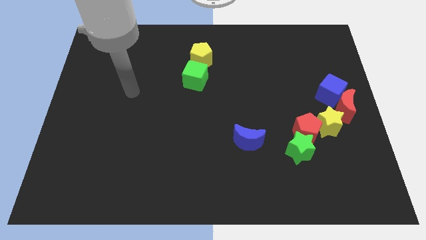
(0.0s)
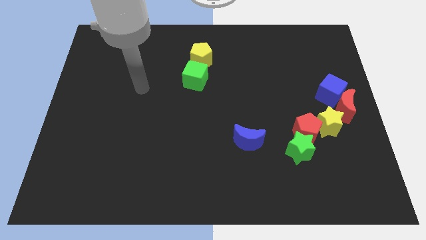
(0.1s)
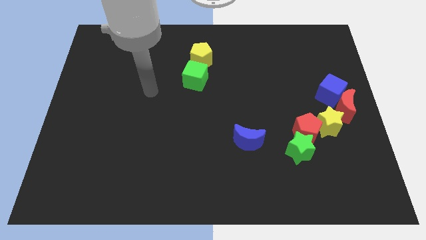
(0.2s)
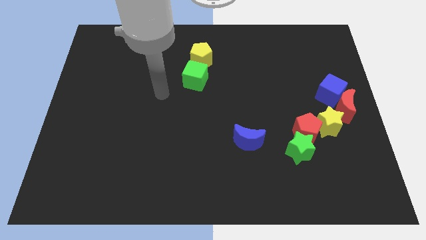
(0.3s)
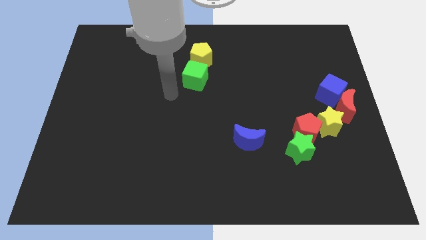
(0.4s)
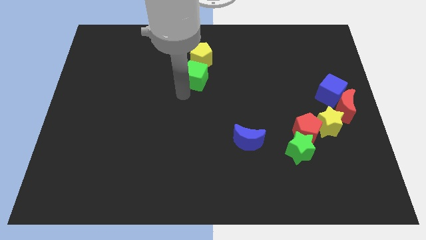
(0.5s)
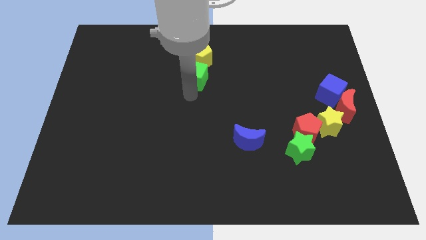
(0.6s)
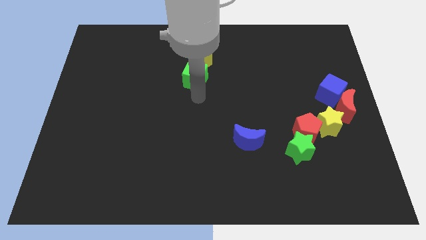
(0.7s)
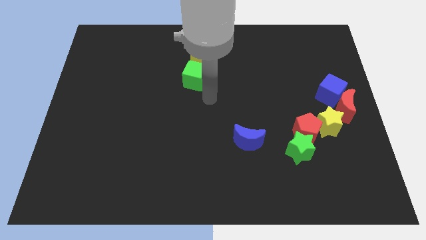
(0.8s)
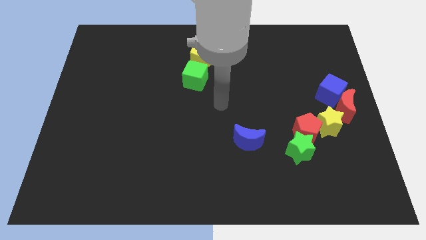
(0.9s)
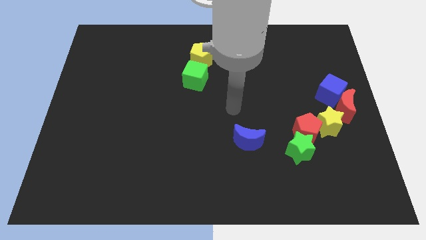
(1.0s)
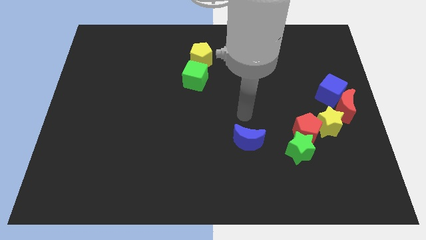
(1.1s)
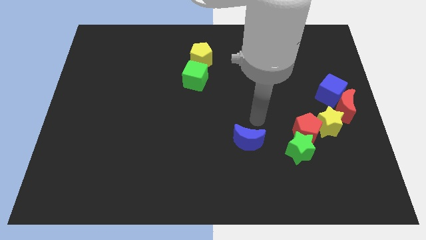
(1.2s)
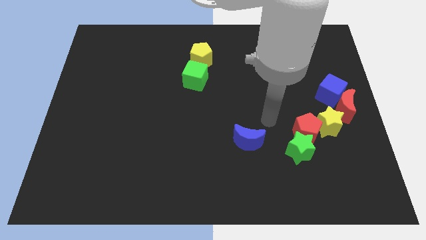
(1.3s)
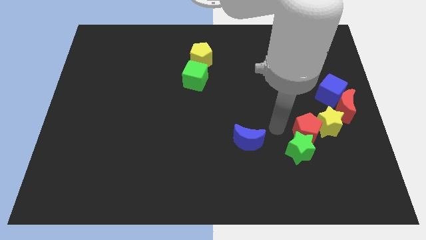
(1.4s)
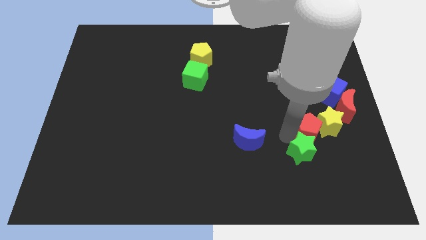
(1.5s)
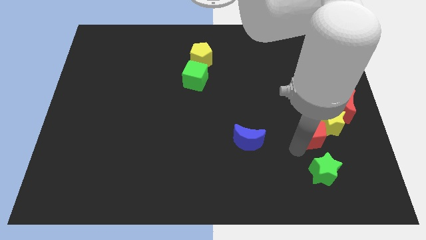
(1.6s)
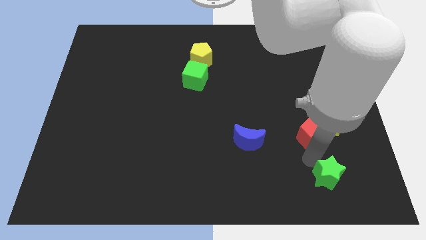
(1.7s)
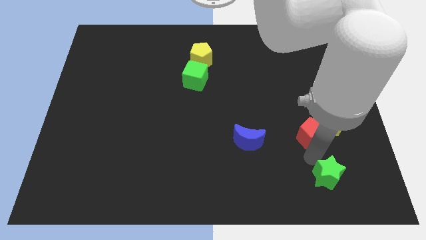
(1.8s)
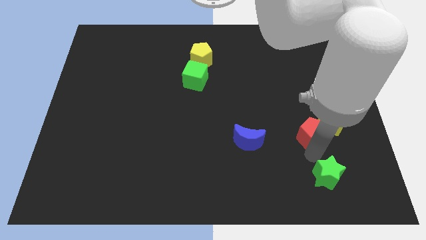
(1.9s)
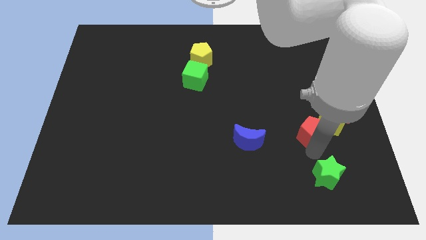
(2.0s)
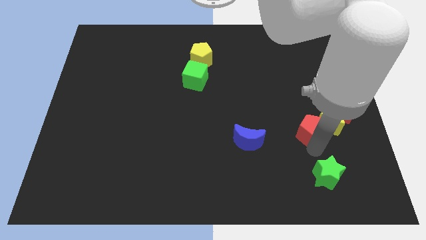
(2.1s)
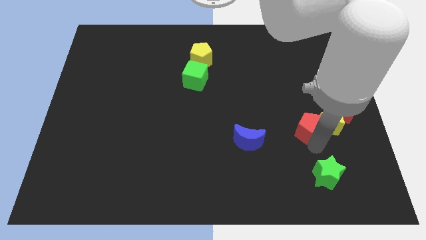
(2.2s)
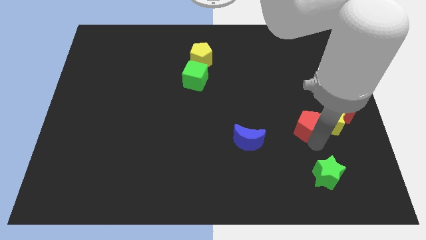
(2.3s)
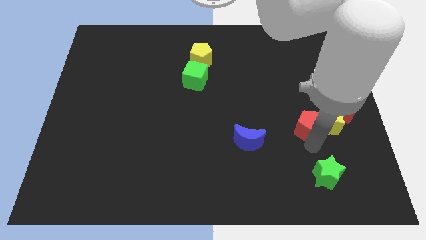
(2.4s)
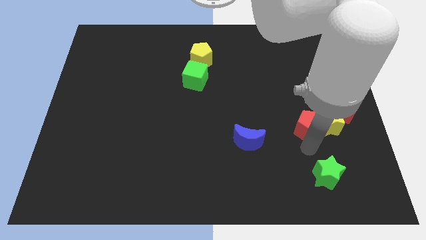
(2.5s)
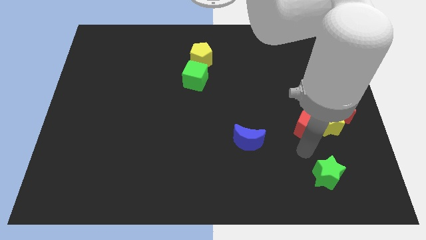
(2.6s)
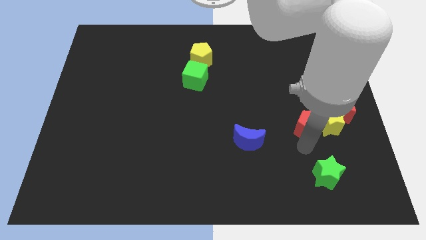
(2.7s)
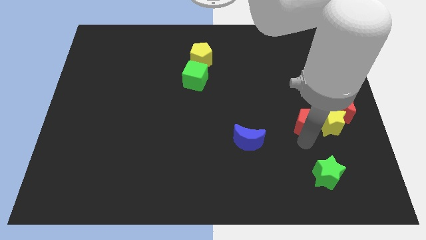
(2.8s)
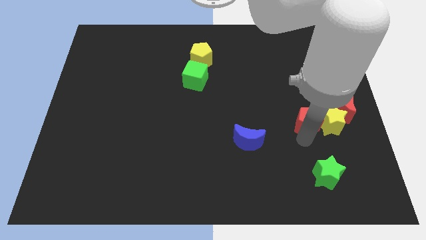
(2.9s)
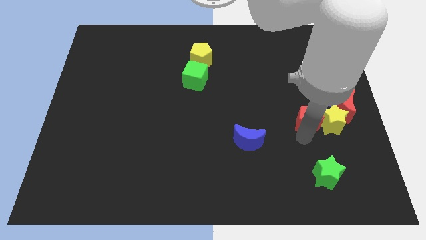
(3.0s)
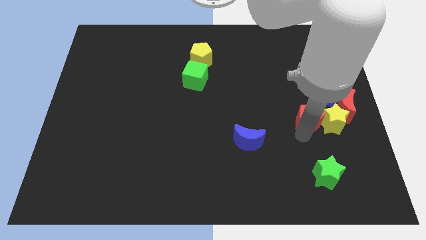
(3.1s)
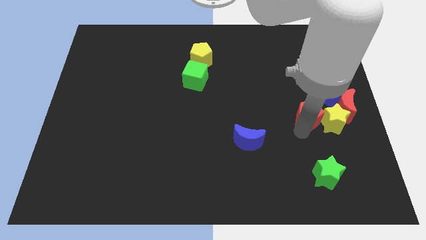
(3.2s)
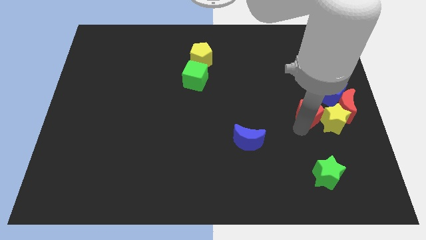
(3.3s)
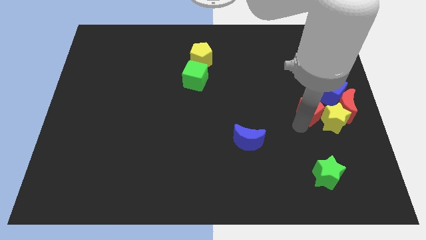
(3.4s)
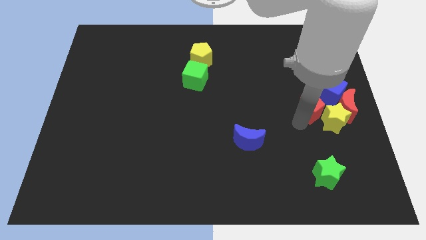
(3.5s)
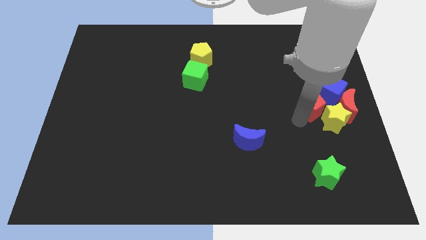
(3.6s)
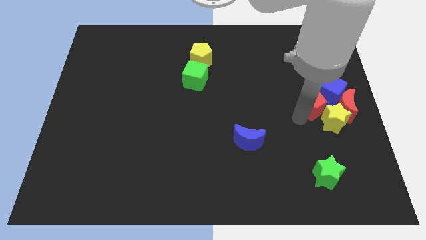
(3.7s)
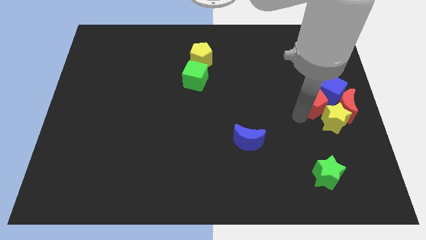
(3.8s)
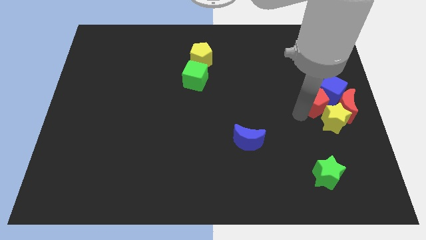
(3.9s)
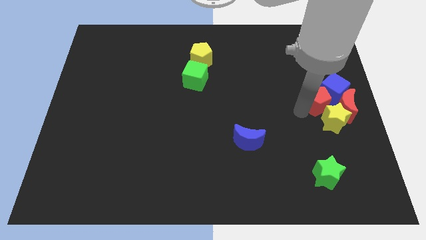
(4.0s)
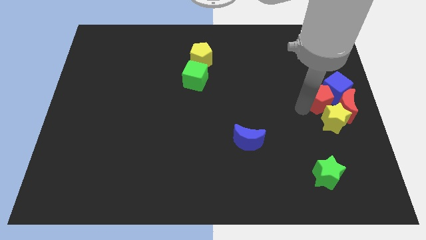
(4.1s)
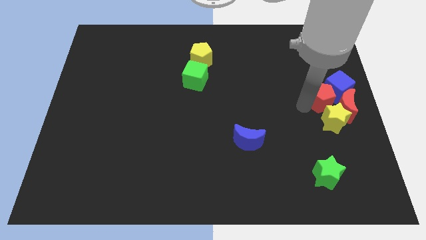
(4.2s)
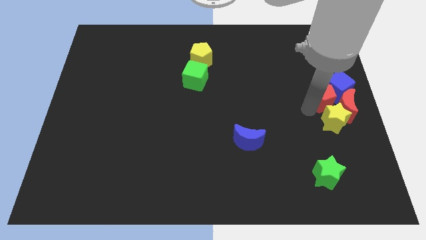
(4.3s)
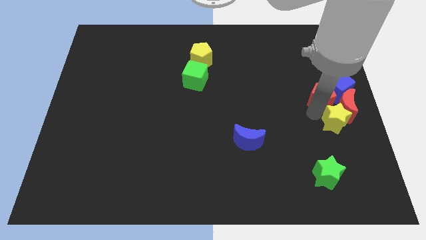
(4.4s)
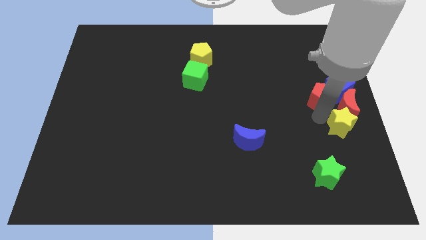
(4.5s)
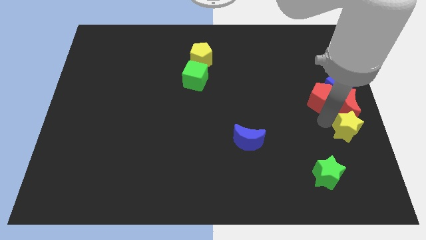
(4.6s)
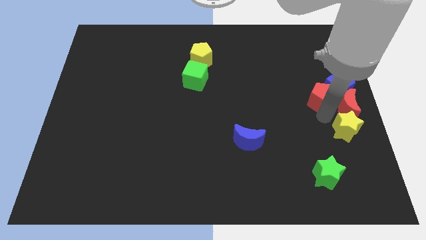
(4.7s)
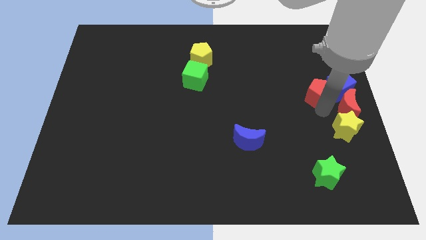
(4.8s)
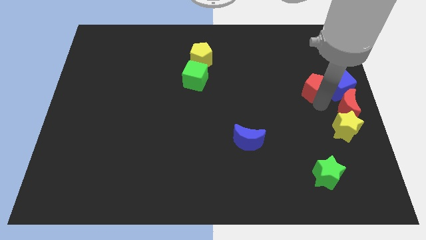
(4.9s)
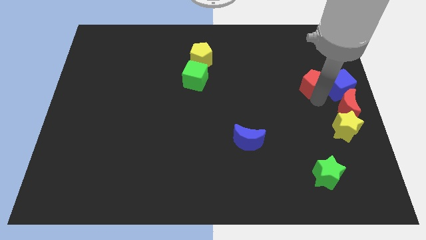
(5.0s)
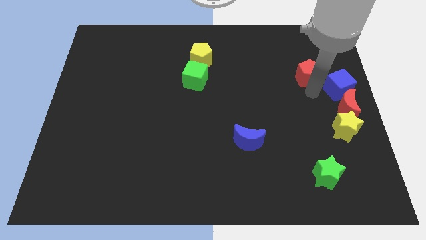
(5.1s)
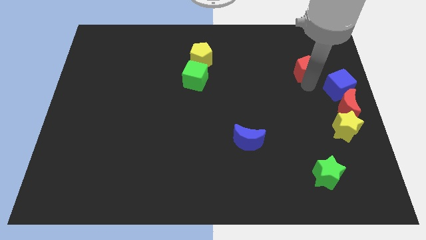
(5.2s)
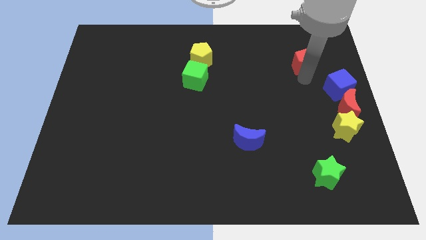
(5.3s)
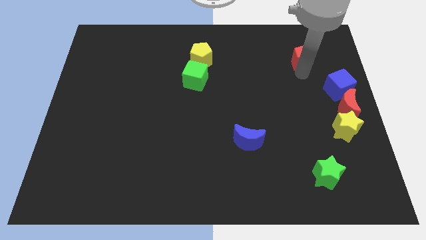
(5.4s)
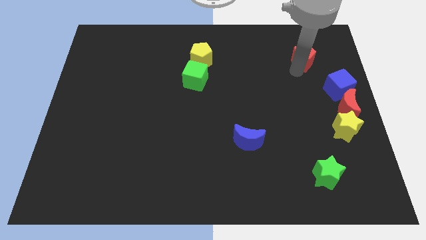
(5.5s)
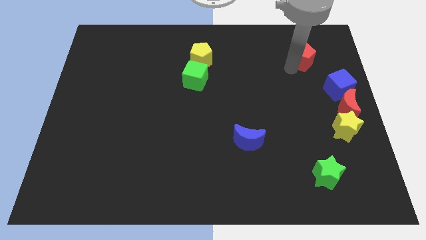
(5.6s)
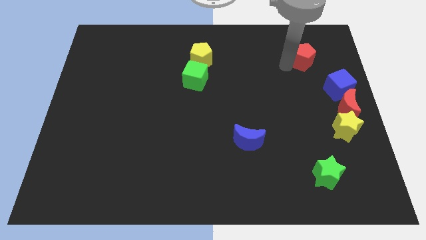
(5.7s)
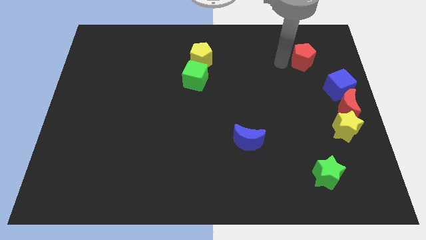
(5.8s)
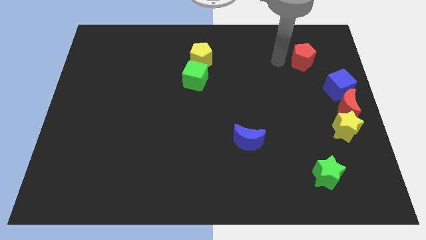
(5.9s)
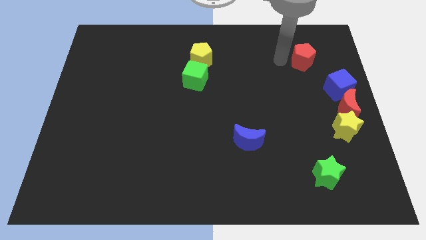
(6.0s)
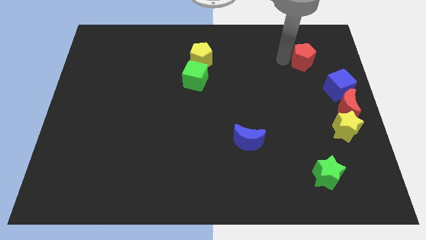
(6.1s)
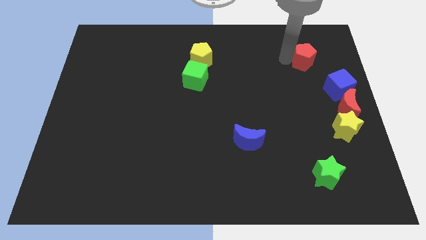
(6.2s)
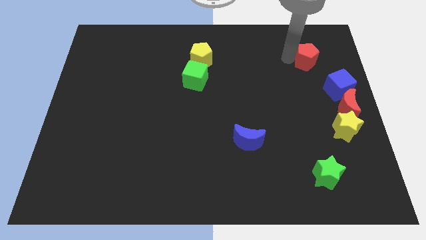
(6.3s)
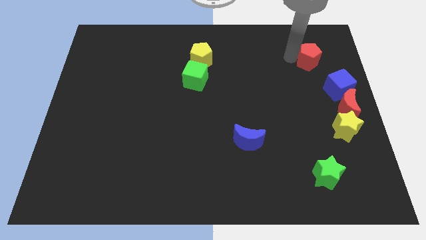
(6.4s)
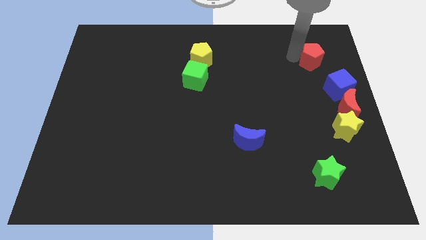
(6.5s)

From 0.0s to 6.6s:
slide the red pentagon above the blue cube
